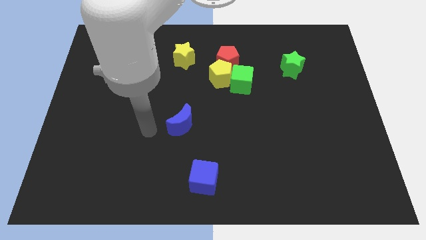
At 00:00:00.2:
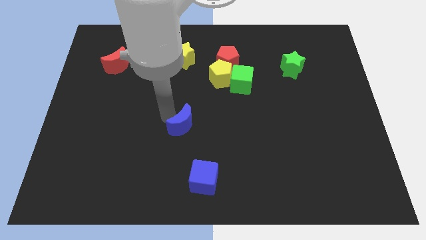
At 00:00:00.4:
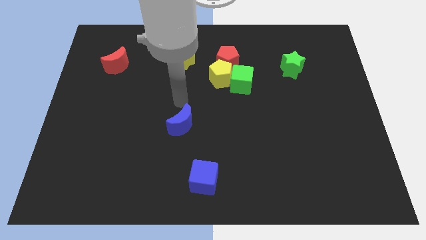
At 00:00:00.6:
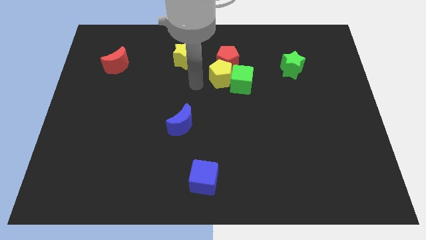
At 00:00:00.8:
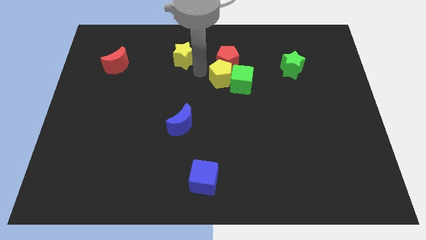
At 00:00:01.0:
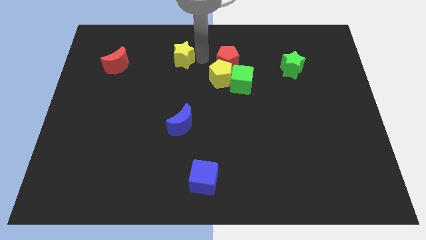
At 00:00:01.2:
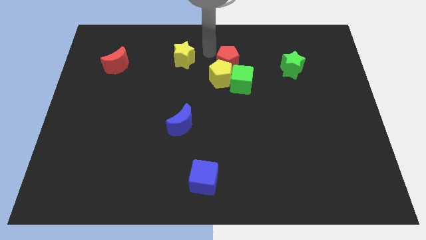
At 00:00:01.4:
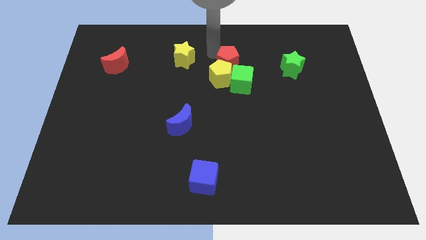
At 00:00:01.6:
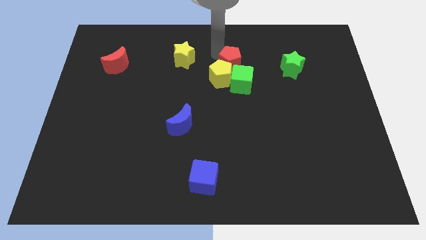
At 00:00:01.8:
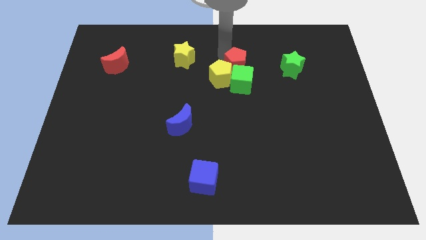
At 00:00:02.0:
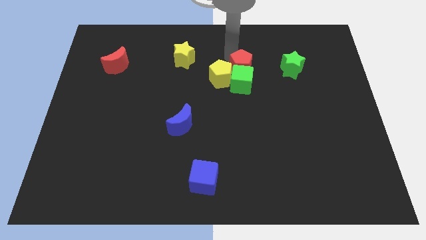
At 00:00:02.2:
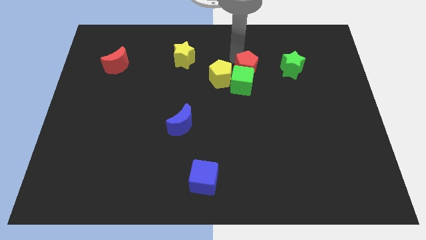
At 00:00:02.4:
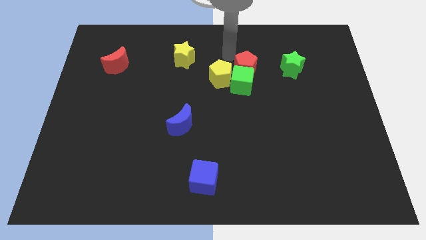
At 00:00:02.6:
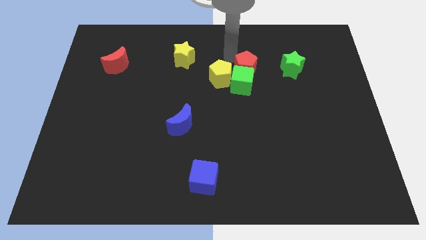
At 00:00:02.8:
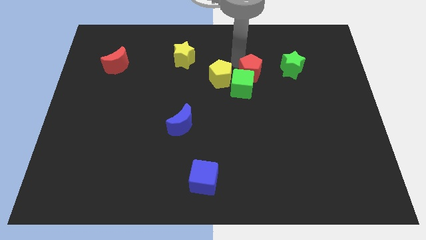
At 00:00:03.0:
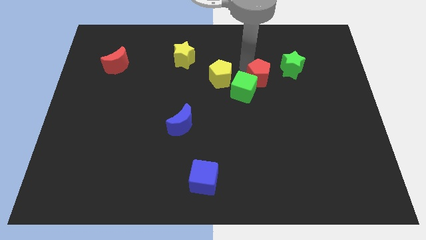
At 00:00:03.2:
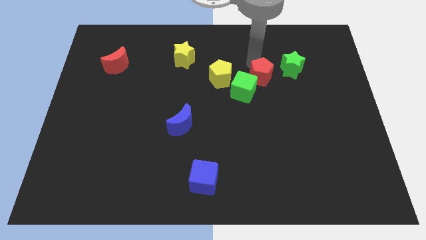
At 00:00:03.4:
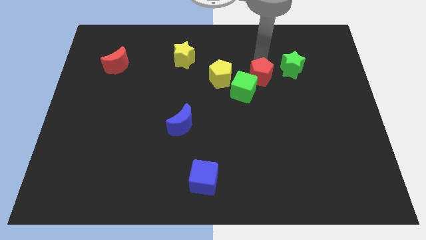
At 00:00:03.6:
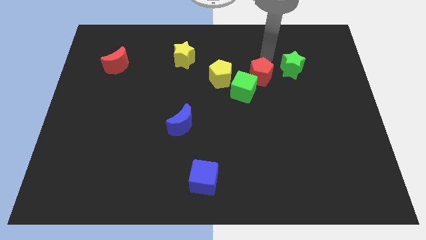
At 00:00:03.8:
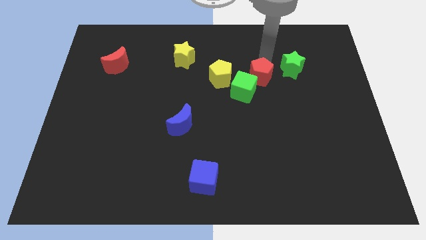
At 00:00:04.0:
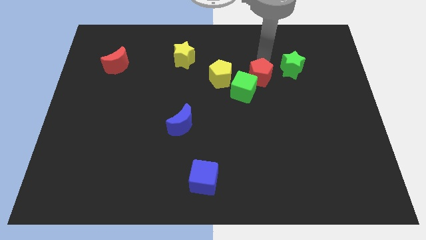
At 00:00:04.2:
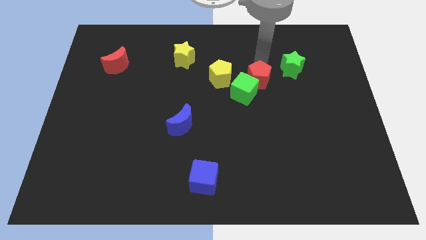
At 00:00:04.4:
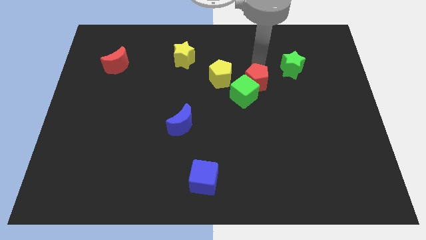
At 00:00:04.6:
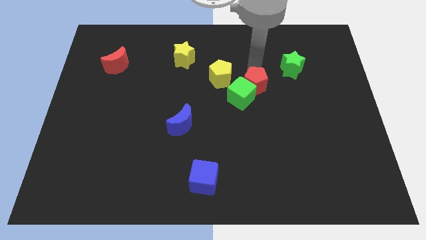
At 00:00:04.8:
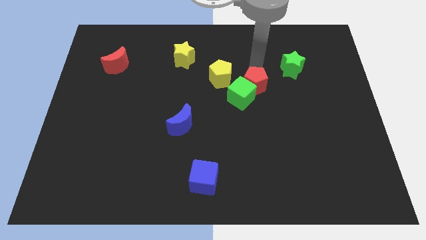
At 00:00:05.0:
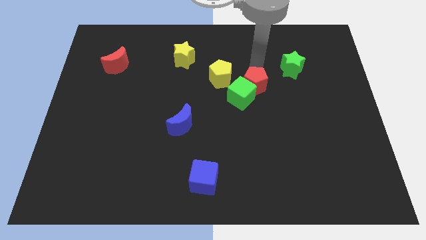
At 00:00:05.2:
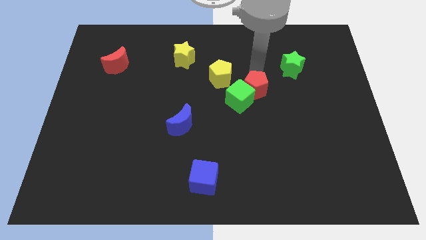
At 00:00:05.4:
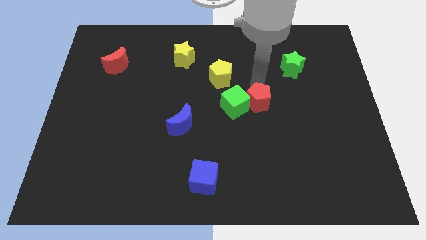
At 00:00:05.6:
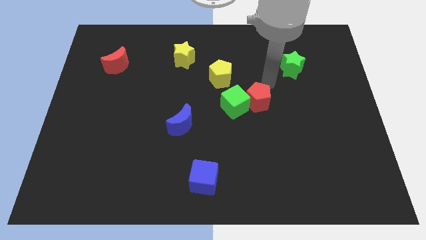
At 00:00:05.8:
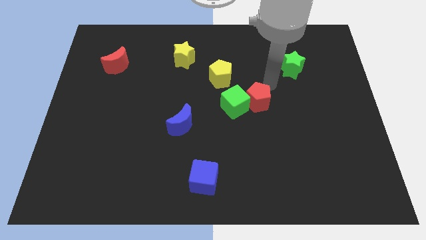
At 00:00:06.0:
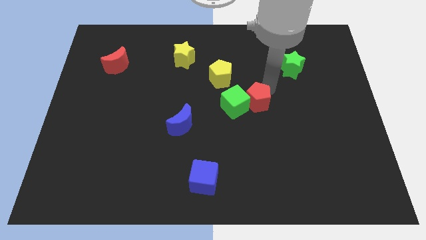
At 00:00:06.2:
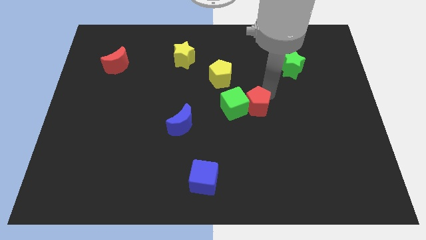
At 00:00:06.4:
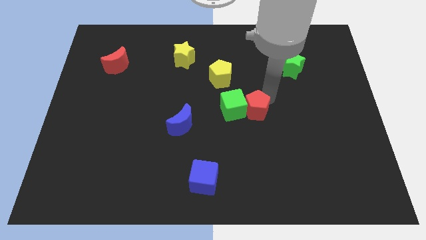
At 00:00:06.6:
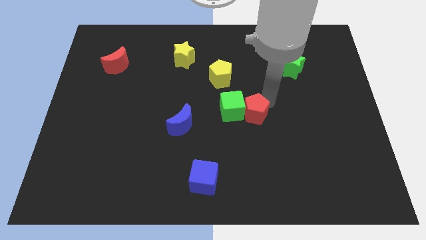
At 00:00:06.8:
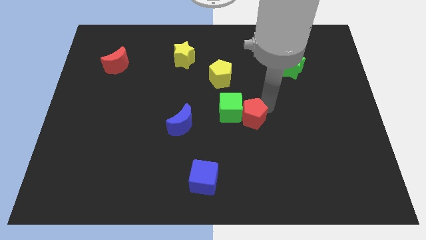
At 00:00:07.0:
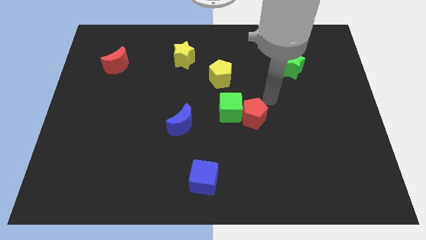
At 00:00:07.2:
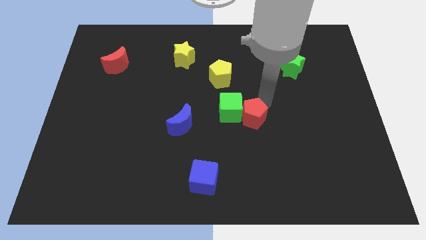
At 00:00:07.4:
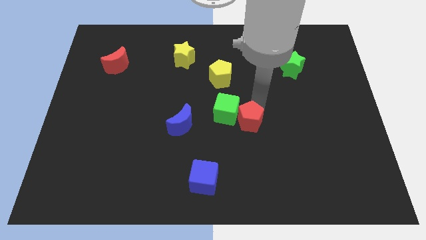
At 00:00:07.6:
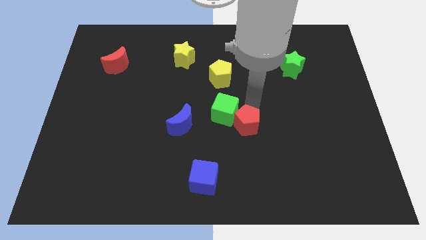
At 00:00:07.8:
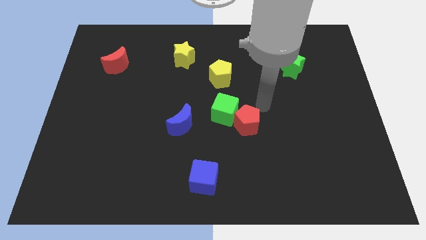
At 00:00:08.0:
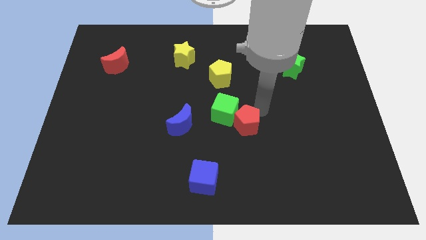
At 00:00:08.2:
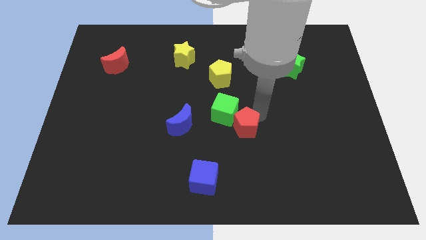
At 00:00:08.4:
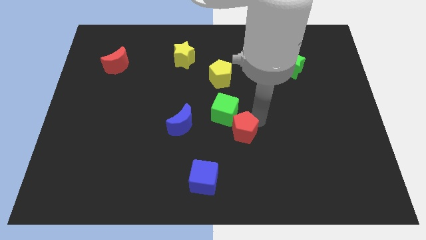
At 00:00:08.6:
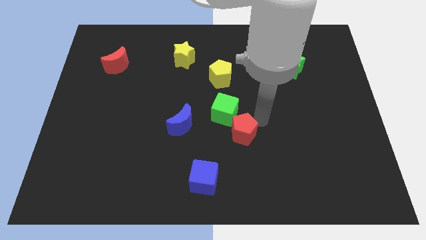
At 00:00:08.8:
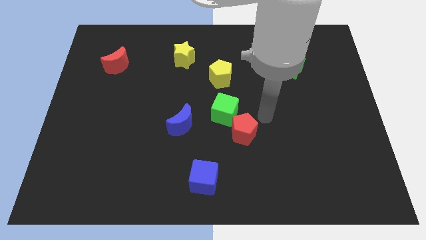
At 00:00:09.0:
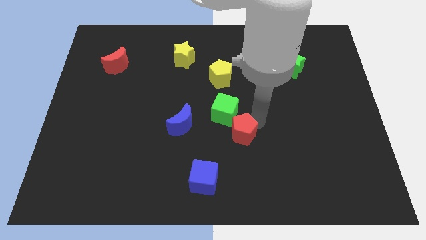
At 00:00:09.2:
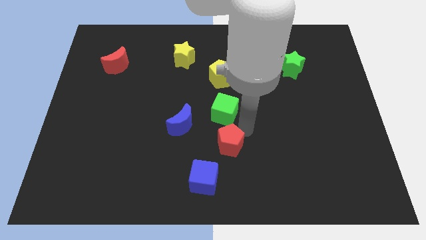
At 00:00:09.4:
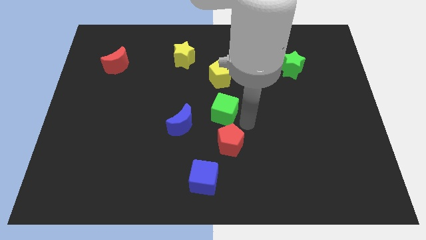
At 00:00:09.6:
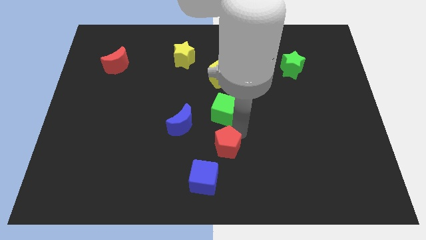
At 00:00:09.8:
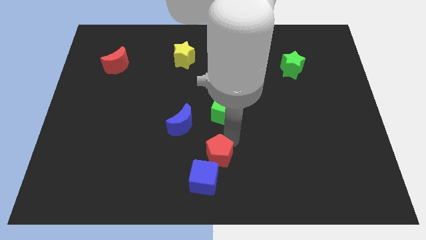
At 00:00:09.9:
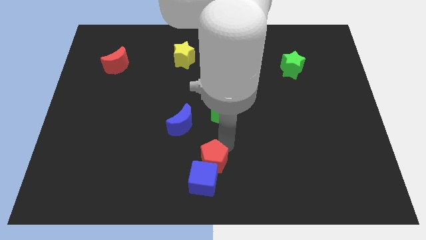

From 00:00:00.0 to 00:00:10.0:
move the red pentagon next to the blue cube

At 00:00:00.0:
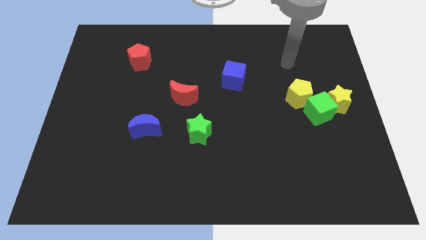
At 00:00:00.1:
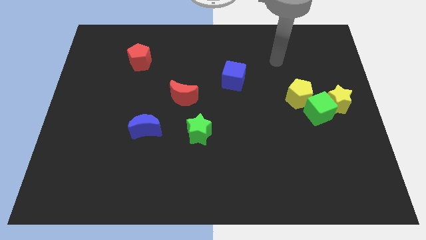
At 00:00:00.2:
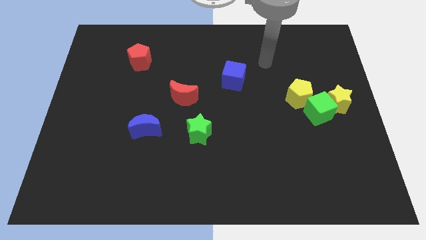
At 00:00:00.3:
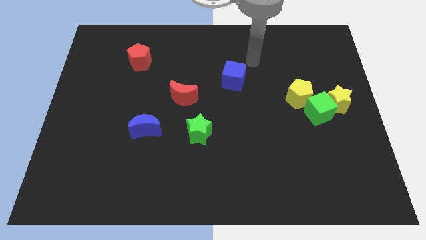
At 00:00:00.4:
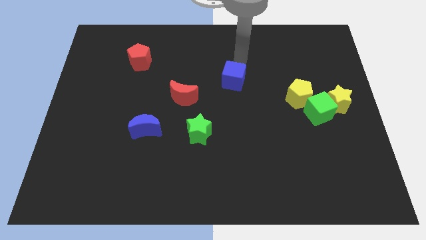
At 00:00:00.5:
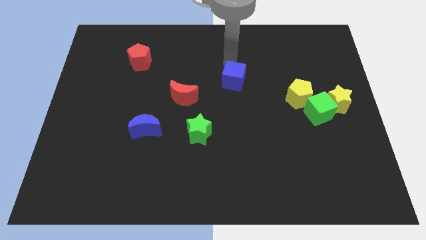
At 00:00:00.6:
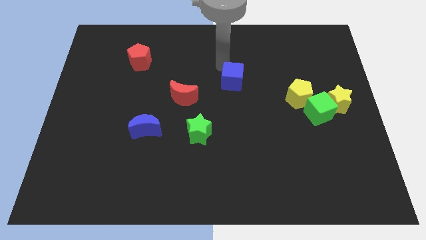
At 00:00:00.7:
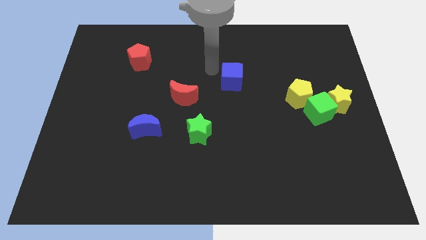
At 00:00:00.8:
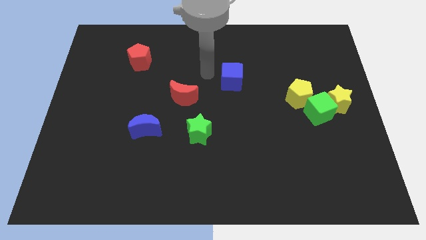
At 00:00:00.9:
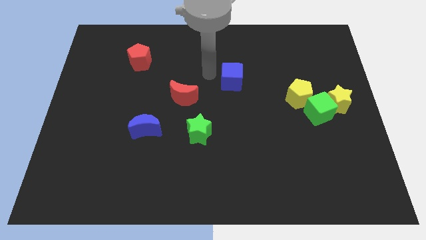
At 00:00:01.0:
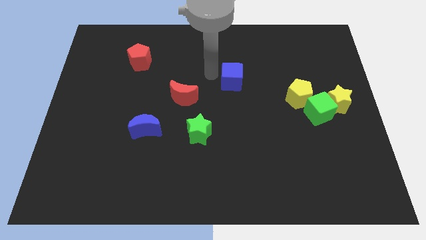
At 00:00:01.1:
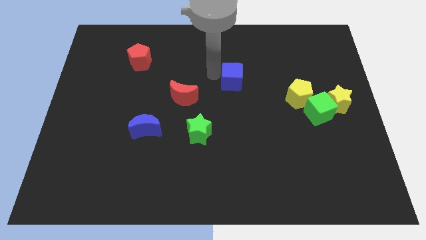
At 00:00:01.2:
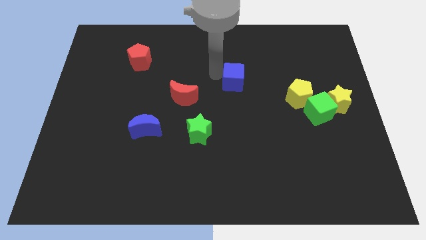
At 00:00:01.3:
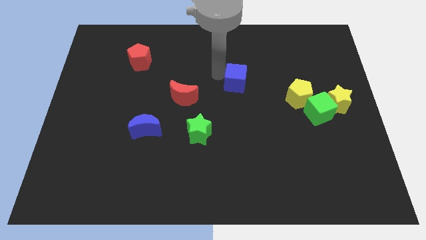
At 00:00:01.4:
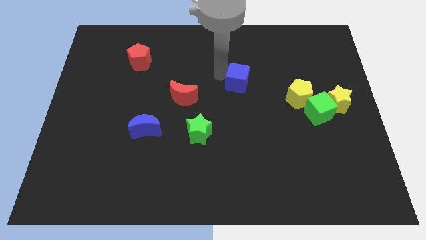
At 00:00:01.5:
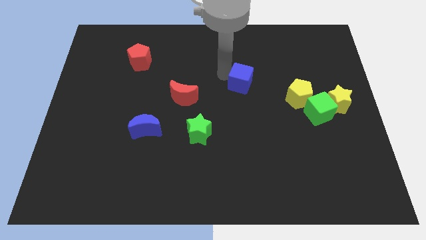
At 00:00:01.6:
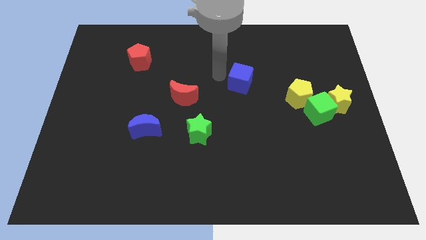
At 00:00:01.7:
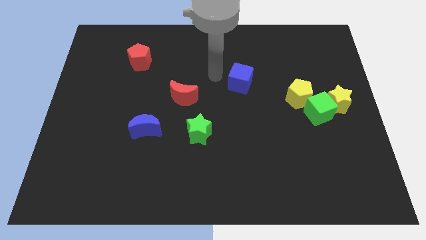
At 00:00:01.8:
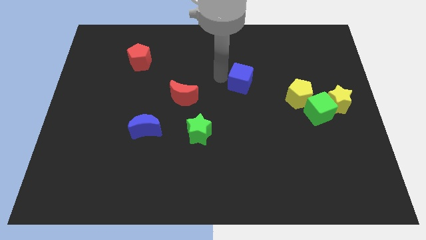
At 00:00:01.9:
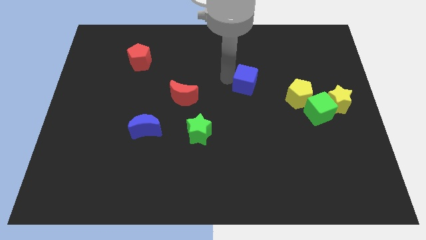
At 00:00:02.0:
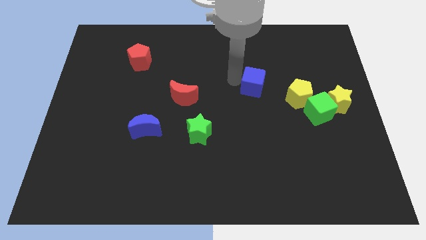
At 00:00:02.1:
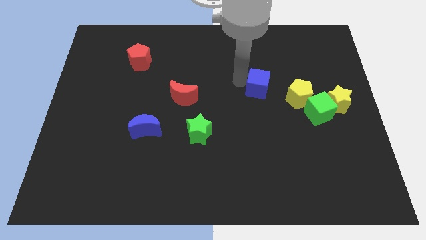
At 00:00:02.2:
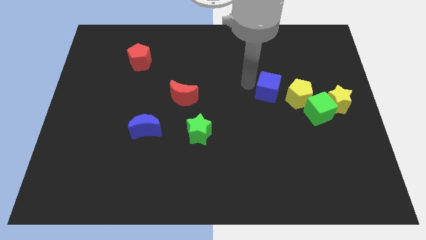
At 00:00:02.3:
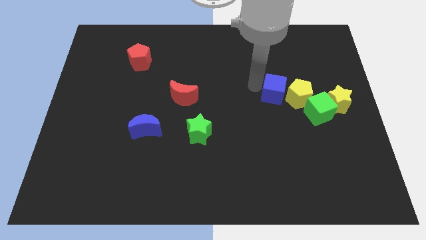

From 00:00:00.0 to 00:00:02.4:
put the blue cube close to the yellow pentagon
